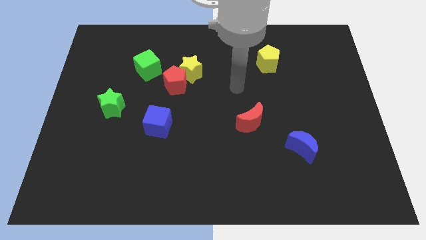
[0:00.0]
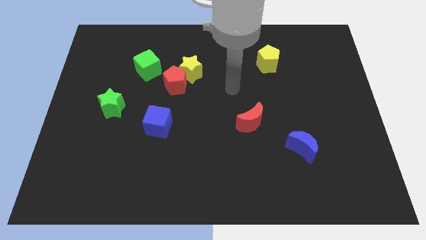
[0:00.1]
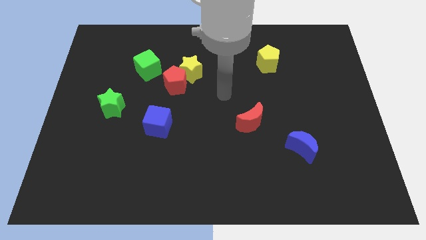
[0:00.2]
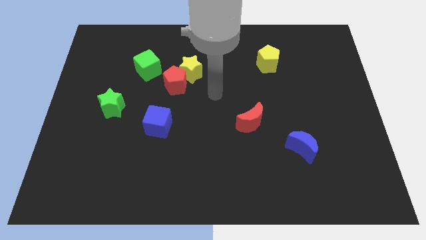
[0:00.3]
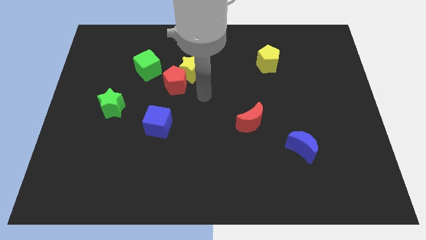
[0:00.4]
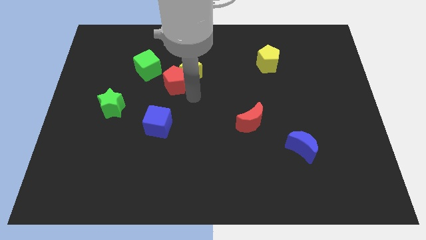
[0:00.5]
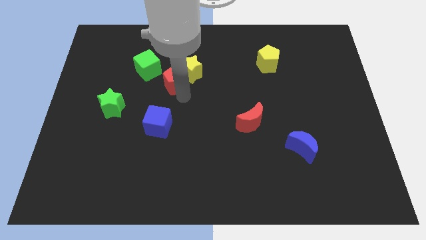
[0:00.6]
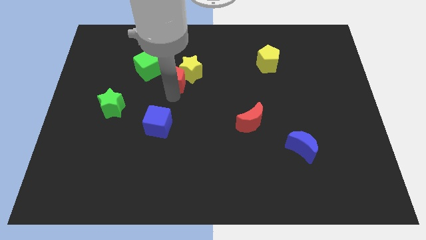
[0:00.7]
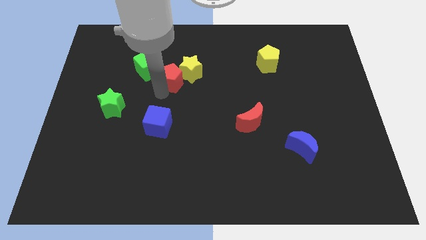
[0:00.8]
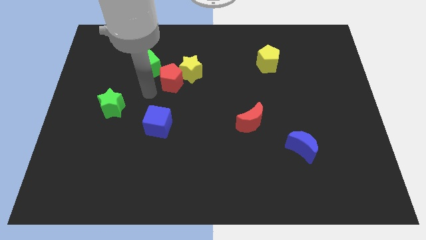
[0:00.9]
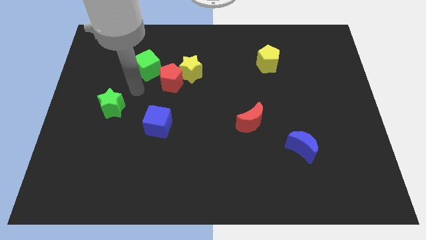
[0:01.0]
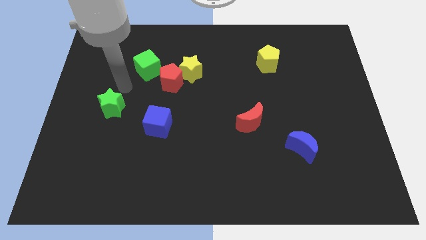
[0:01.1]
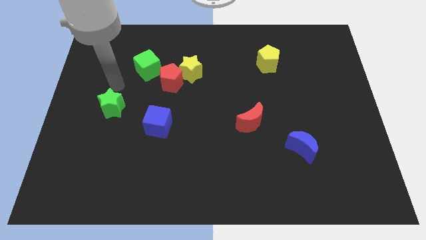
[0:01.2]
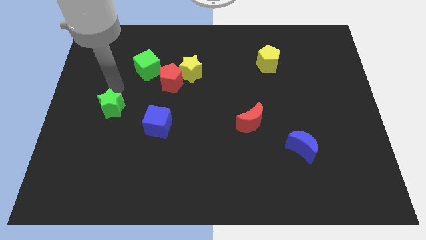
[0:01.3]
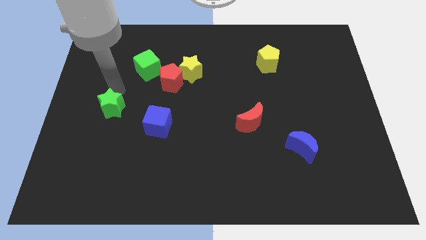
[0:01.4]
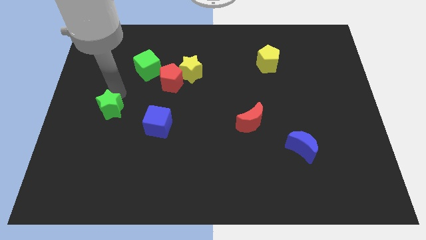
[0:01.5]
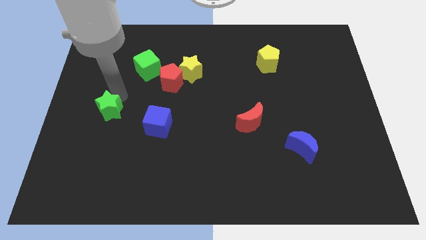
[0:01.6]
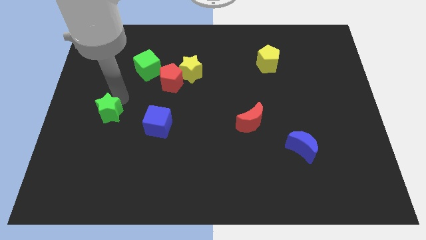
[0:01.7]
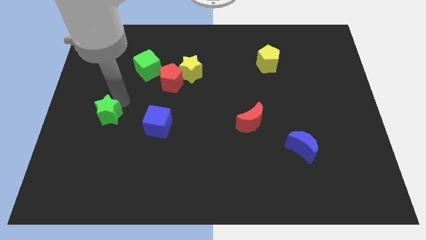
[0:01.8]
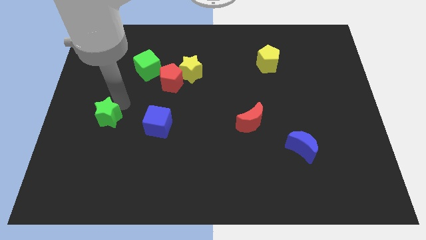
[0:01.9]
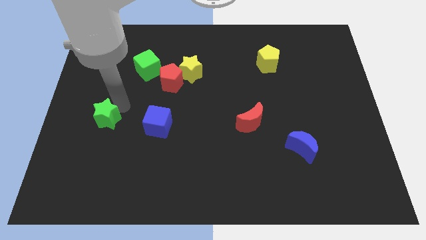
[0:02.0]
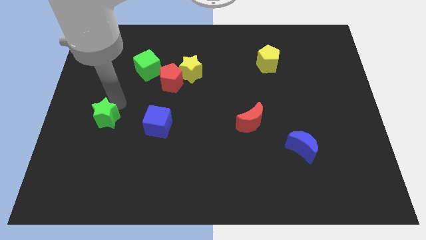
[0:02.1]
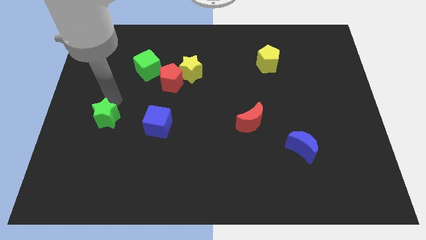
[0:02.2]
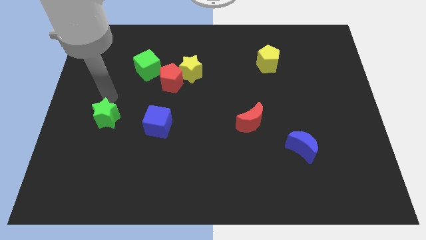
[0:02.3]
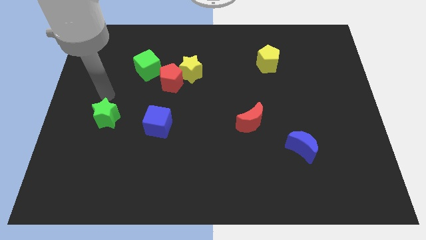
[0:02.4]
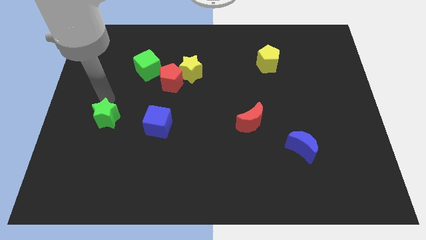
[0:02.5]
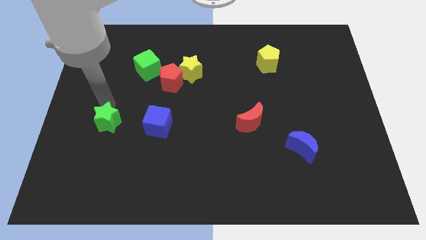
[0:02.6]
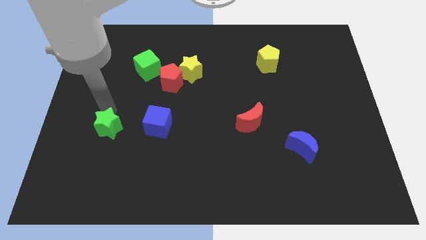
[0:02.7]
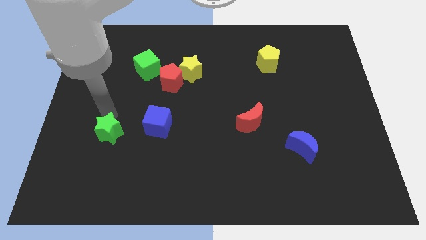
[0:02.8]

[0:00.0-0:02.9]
slide the green star a little down

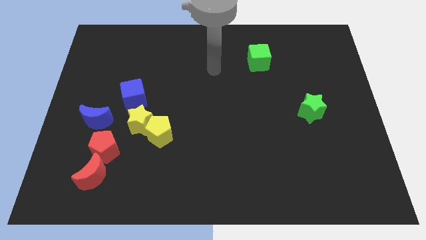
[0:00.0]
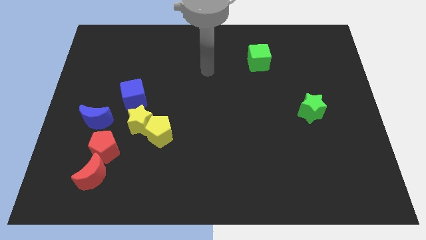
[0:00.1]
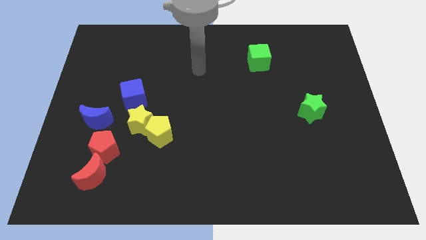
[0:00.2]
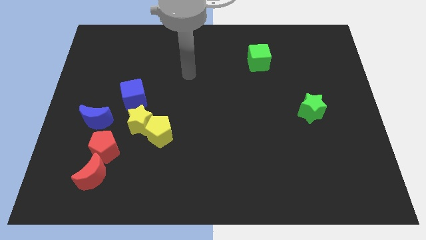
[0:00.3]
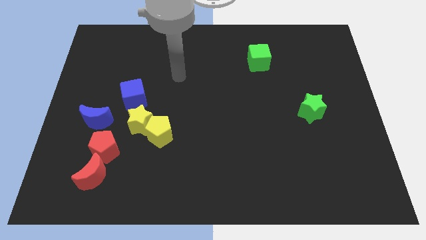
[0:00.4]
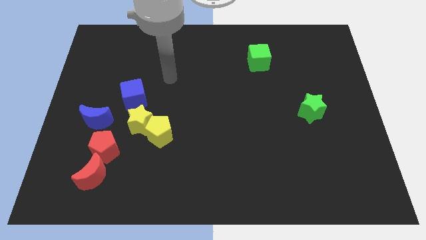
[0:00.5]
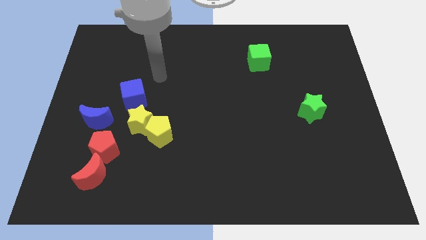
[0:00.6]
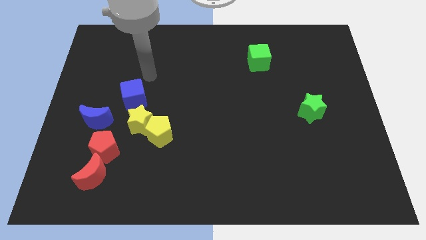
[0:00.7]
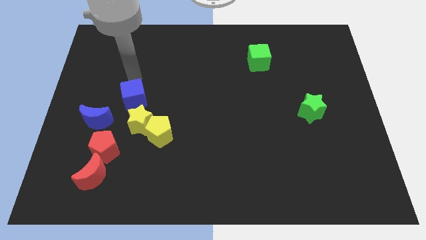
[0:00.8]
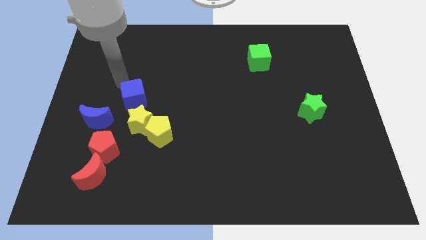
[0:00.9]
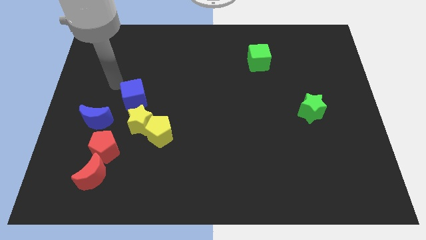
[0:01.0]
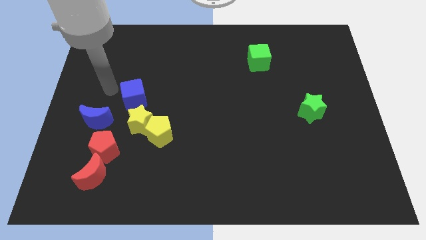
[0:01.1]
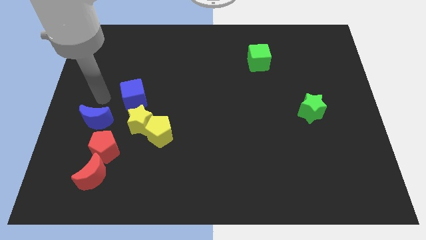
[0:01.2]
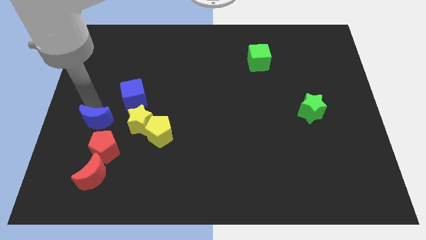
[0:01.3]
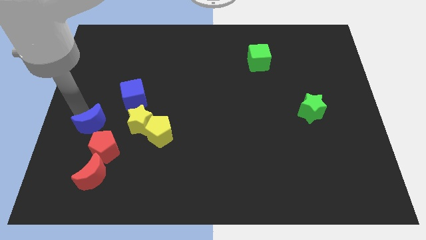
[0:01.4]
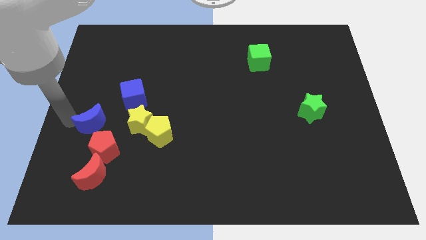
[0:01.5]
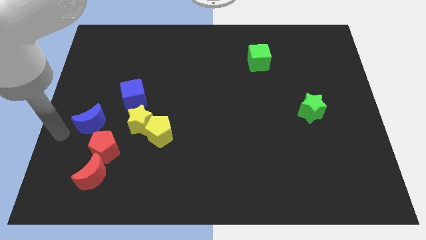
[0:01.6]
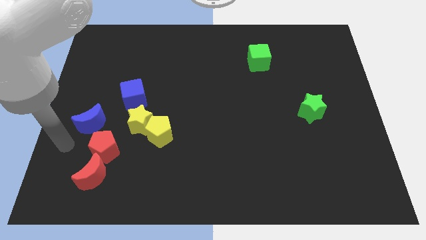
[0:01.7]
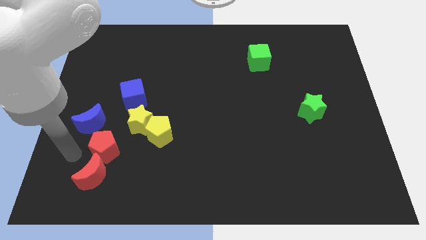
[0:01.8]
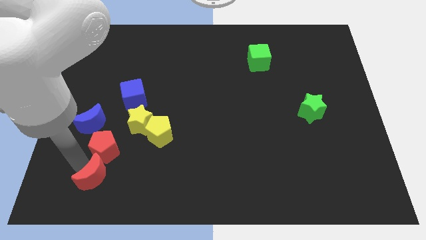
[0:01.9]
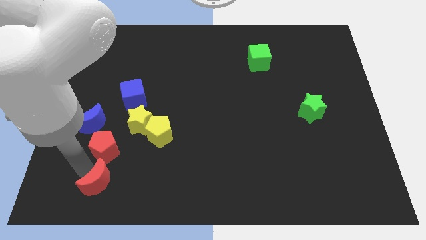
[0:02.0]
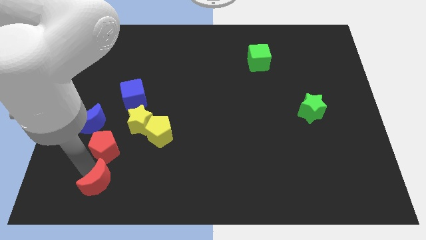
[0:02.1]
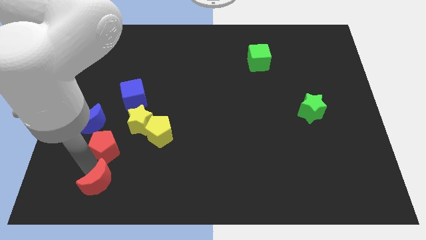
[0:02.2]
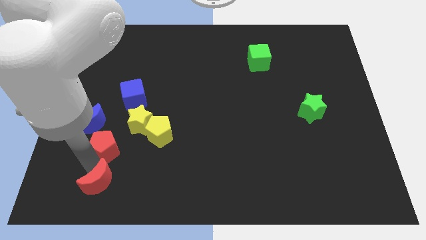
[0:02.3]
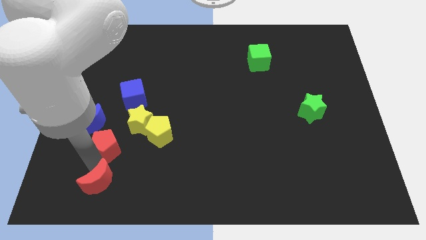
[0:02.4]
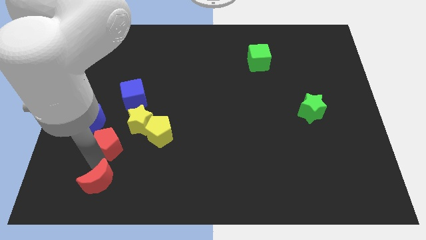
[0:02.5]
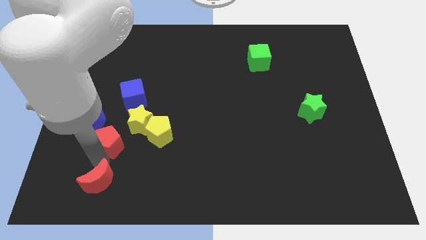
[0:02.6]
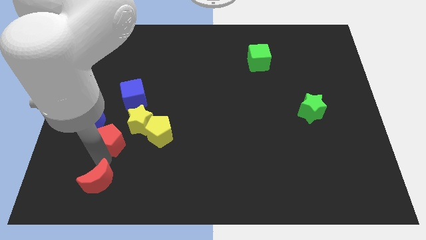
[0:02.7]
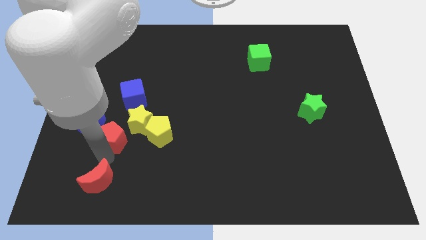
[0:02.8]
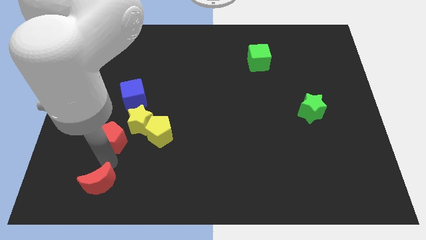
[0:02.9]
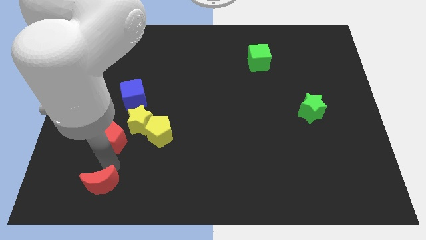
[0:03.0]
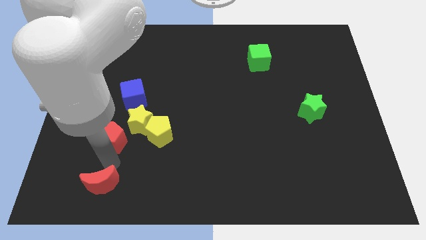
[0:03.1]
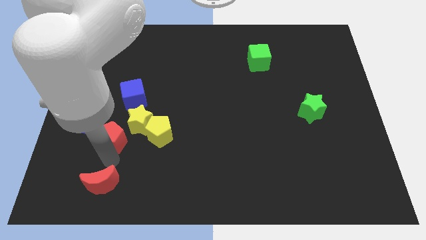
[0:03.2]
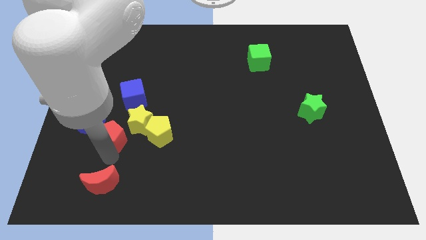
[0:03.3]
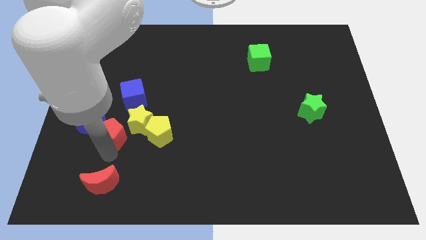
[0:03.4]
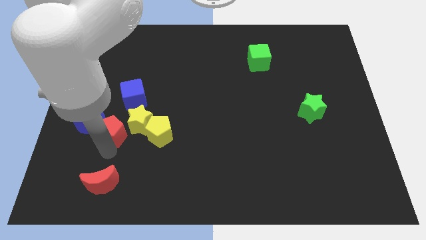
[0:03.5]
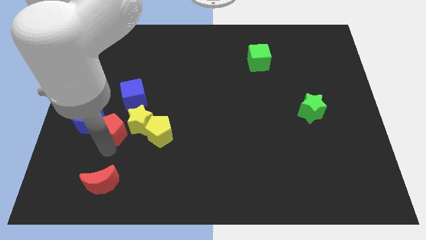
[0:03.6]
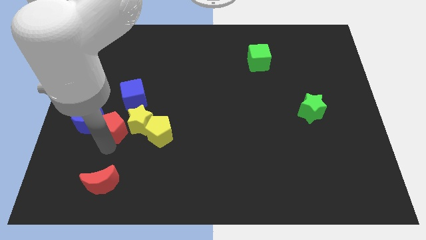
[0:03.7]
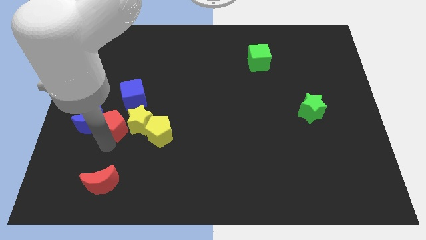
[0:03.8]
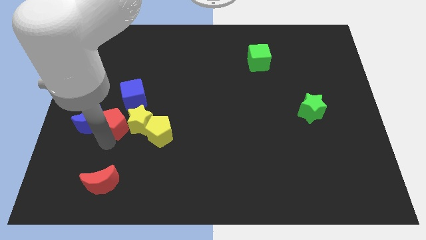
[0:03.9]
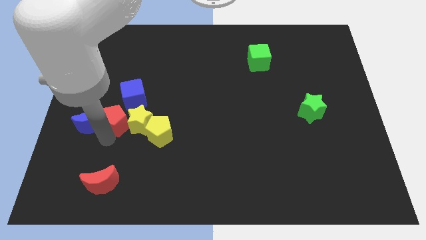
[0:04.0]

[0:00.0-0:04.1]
slightly move the red pentagon upwards

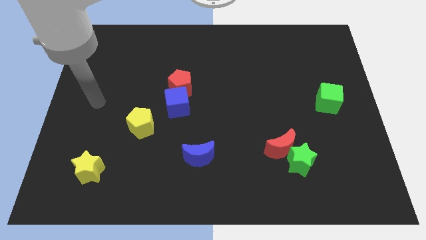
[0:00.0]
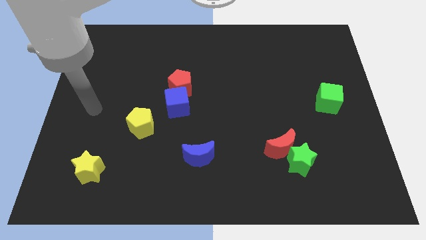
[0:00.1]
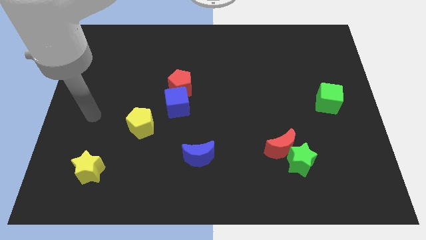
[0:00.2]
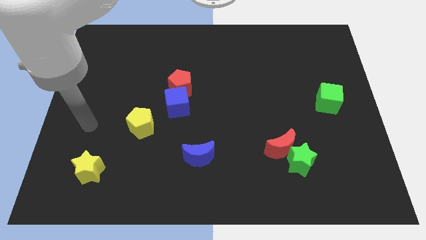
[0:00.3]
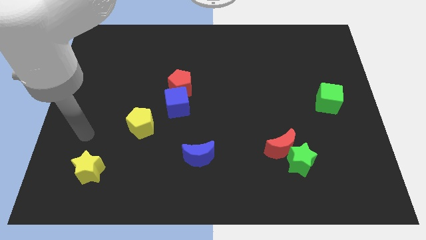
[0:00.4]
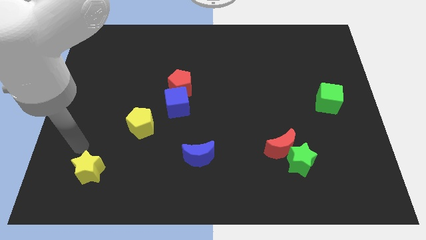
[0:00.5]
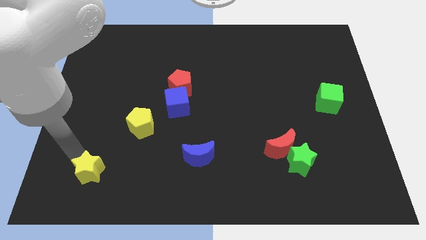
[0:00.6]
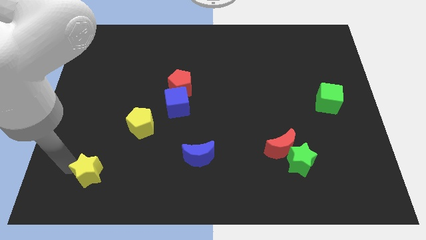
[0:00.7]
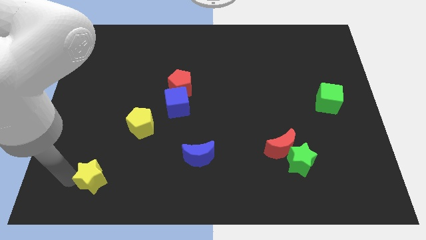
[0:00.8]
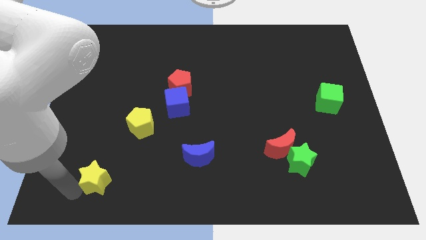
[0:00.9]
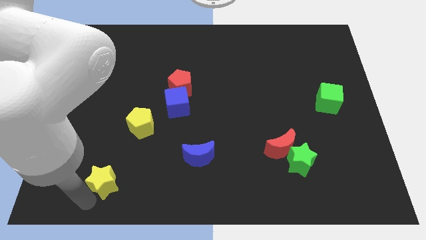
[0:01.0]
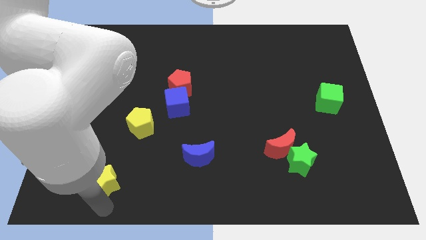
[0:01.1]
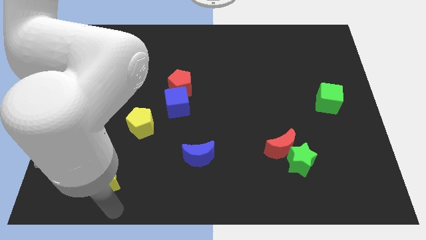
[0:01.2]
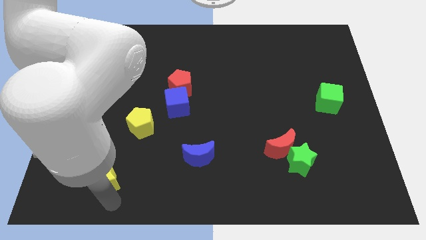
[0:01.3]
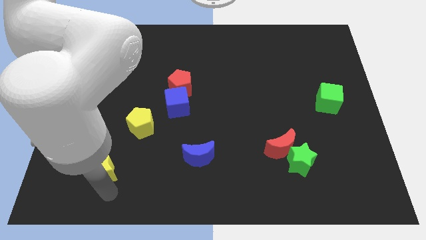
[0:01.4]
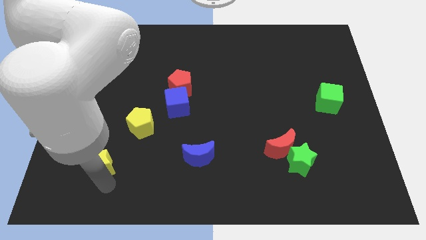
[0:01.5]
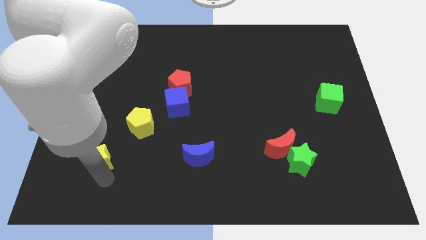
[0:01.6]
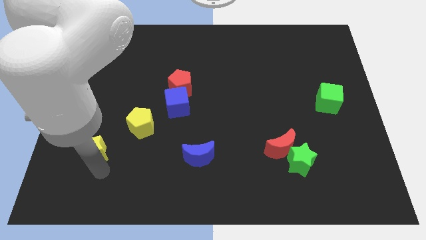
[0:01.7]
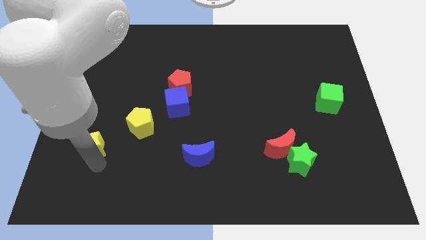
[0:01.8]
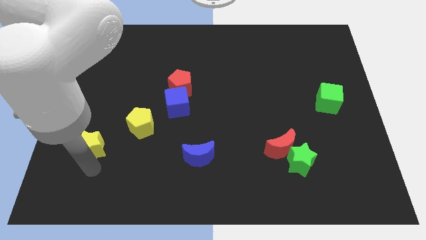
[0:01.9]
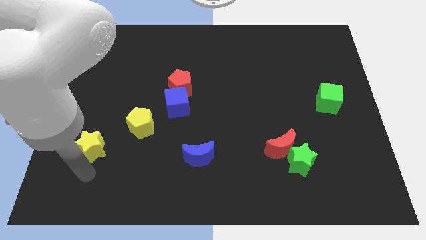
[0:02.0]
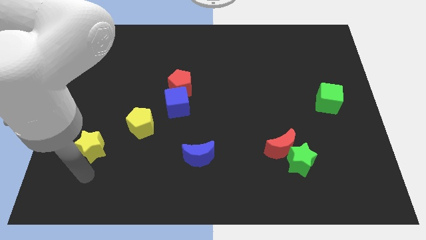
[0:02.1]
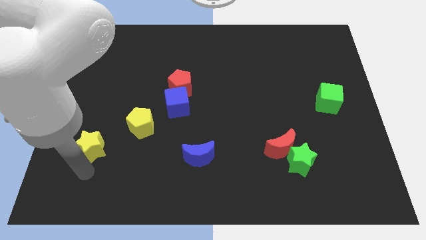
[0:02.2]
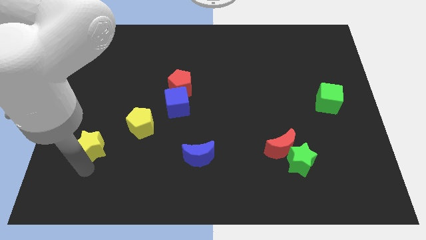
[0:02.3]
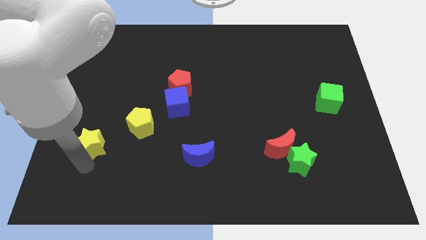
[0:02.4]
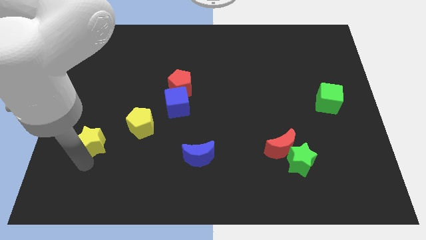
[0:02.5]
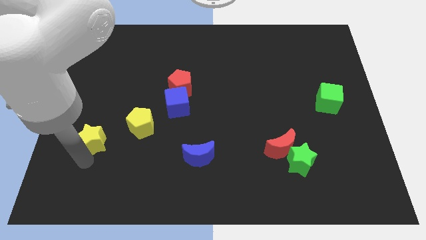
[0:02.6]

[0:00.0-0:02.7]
slightly move the yellow star upwards
